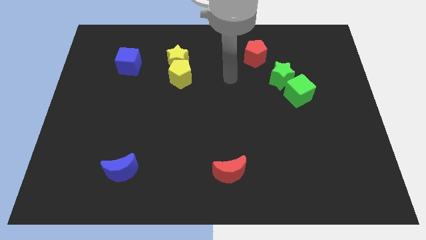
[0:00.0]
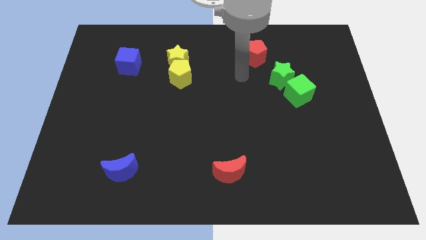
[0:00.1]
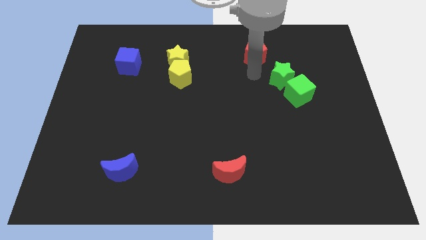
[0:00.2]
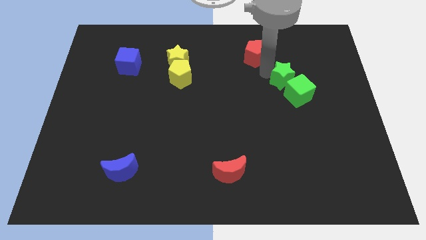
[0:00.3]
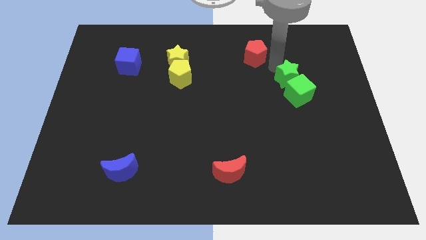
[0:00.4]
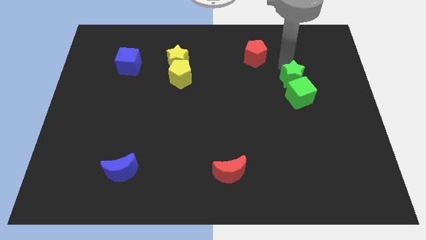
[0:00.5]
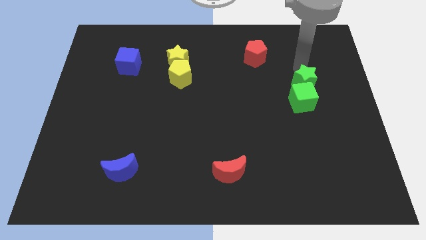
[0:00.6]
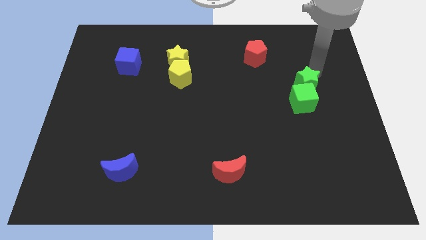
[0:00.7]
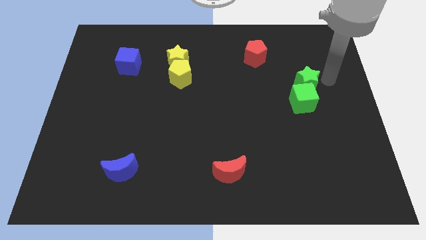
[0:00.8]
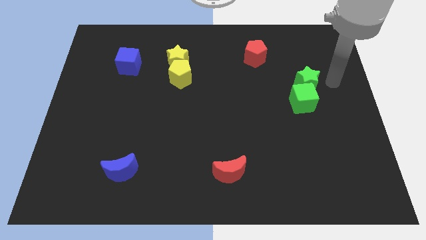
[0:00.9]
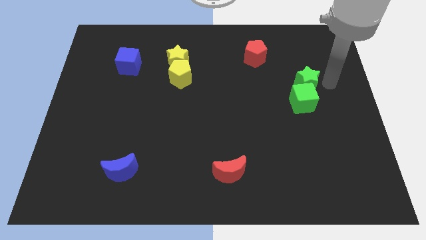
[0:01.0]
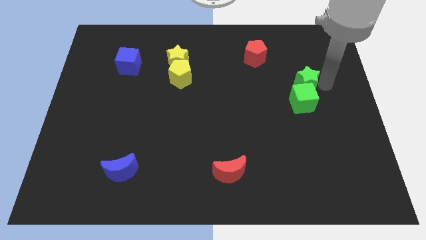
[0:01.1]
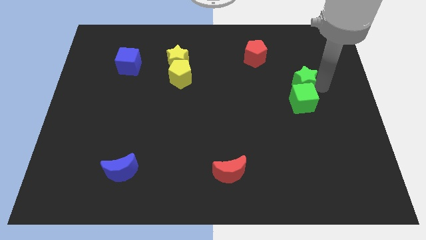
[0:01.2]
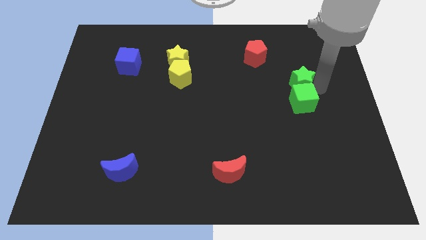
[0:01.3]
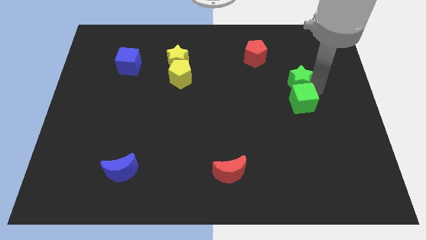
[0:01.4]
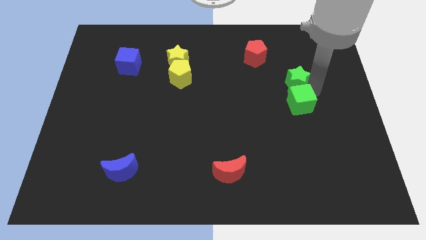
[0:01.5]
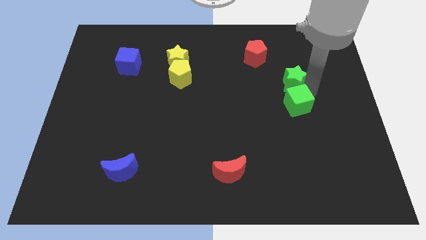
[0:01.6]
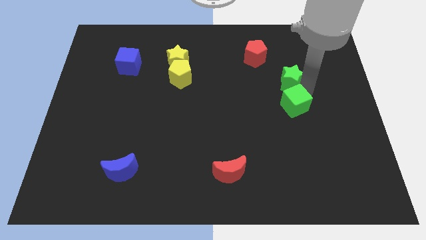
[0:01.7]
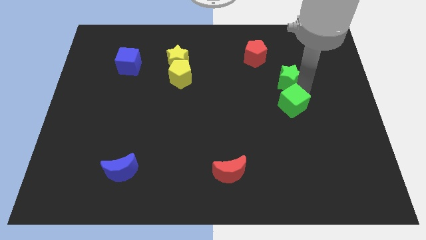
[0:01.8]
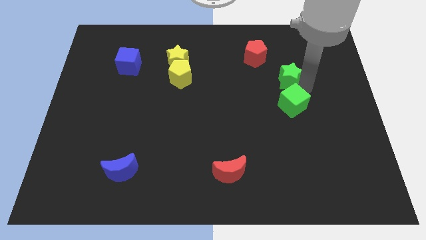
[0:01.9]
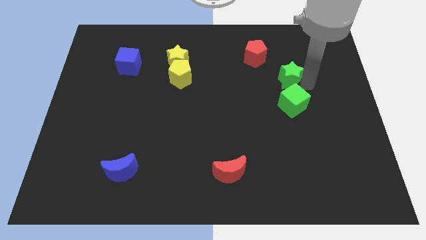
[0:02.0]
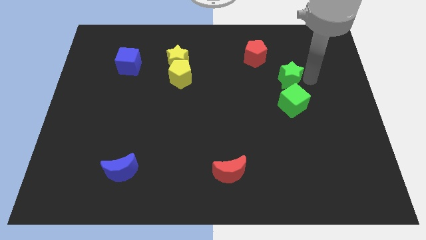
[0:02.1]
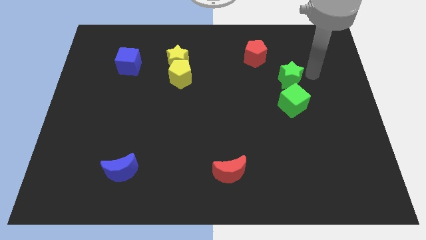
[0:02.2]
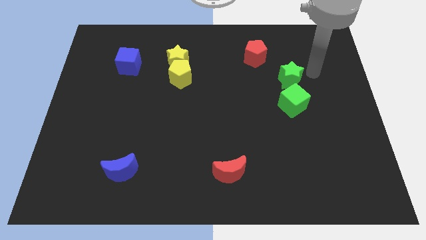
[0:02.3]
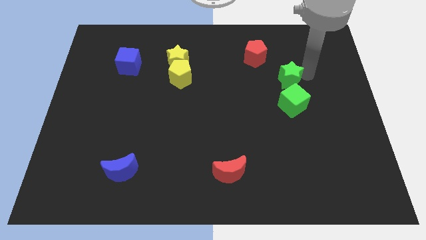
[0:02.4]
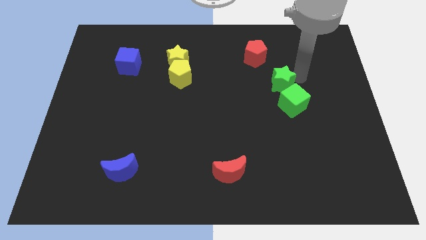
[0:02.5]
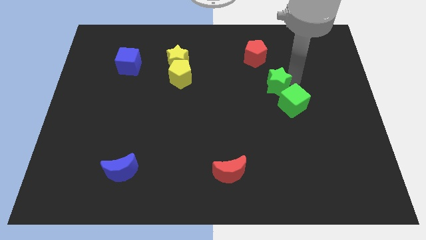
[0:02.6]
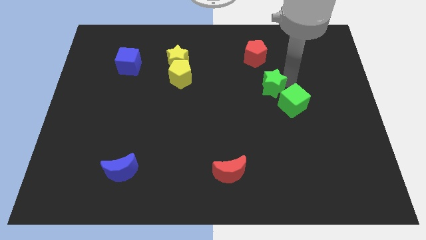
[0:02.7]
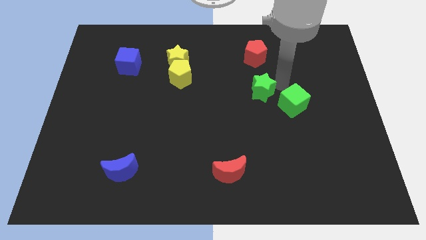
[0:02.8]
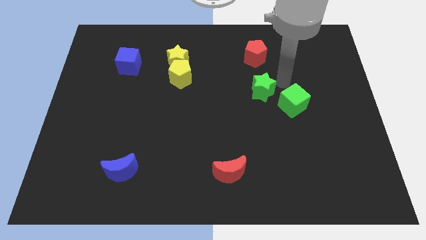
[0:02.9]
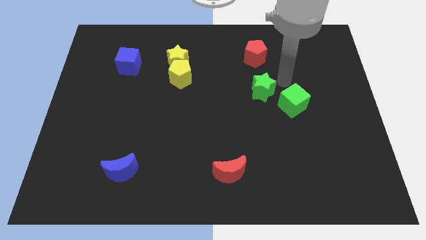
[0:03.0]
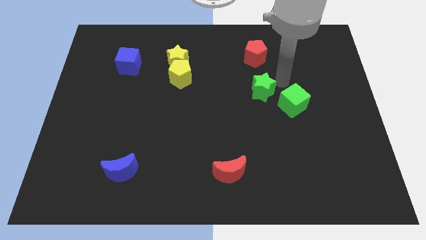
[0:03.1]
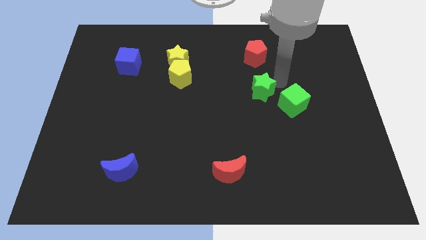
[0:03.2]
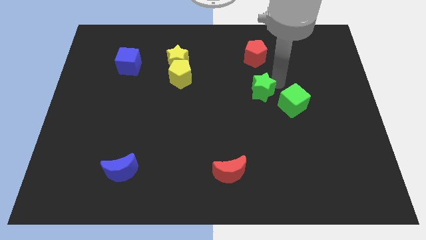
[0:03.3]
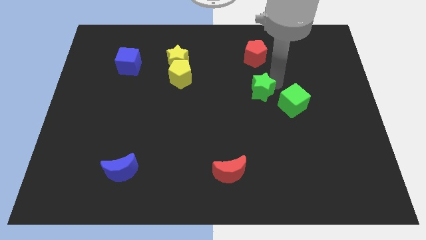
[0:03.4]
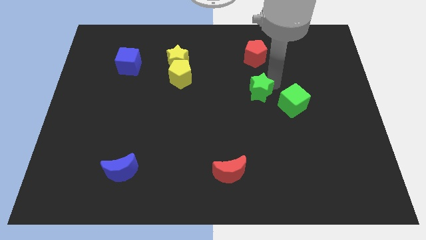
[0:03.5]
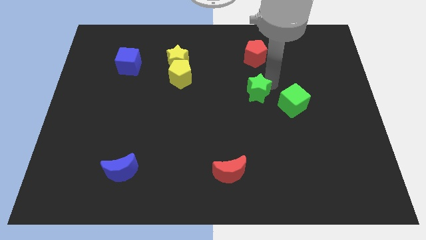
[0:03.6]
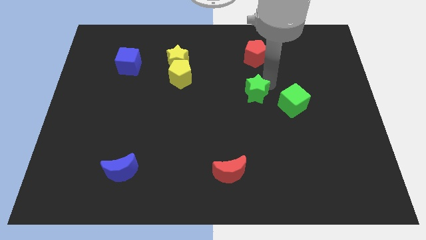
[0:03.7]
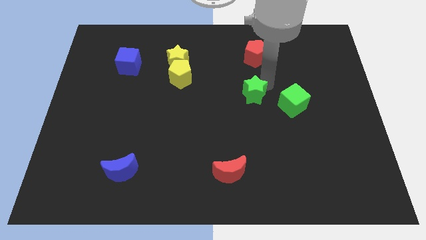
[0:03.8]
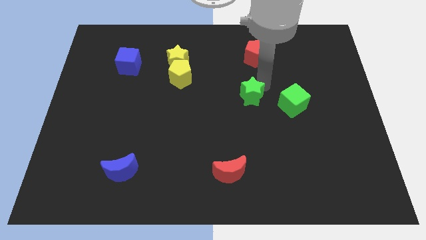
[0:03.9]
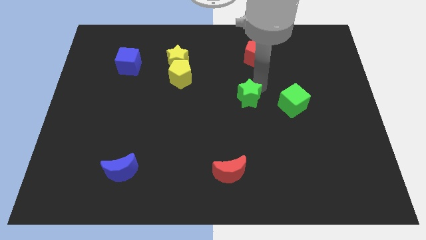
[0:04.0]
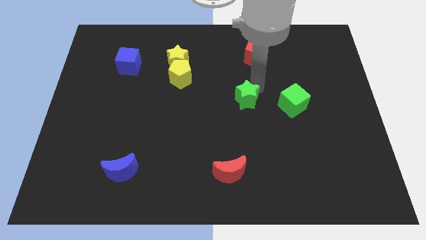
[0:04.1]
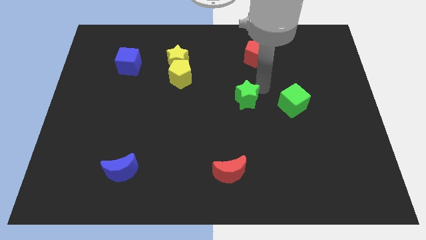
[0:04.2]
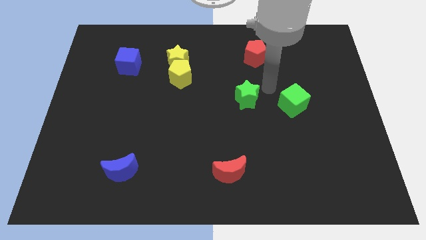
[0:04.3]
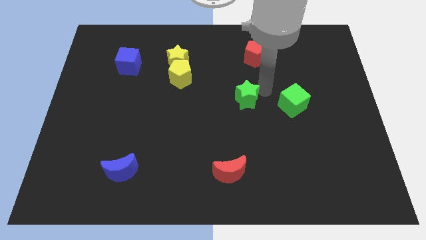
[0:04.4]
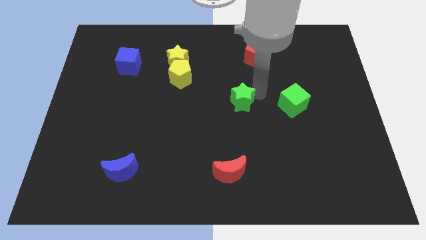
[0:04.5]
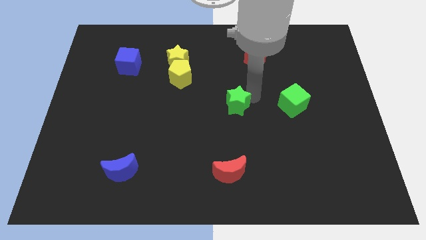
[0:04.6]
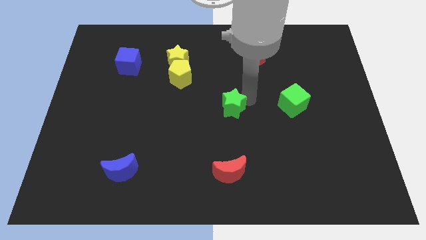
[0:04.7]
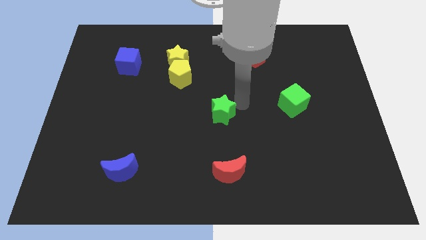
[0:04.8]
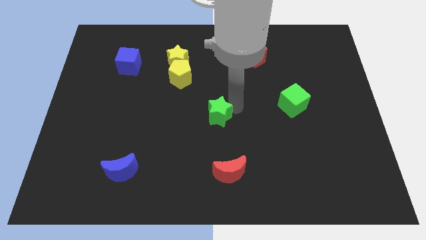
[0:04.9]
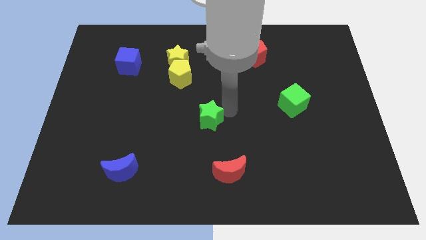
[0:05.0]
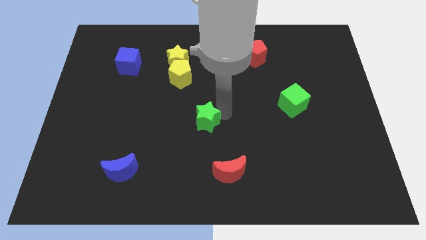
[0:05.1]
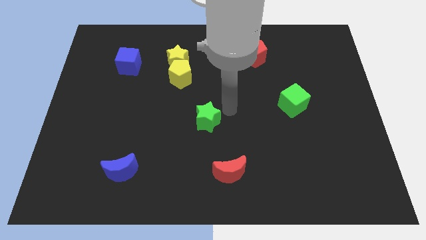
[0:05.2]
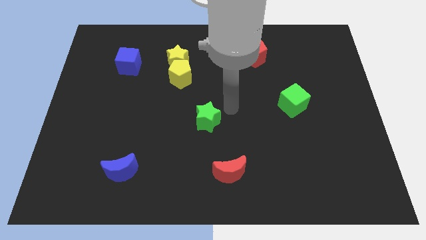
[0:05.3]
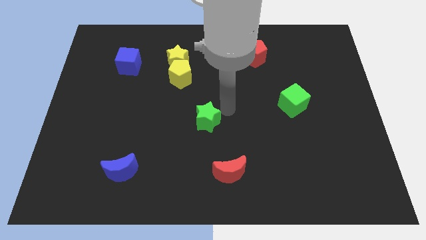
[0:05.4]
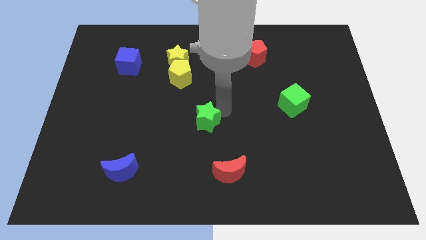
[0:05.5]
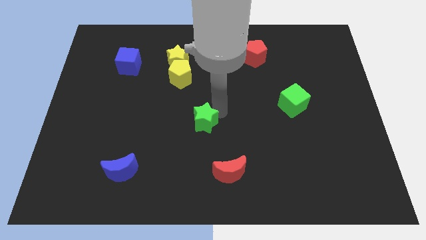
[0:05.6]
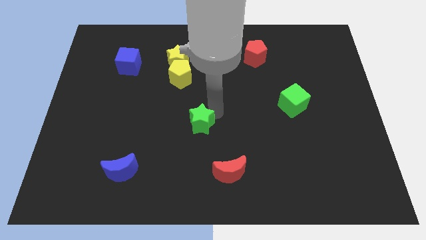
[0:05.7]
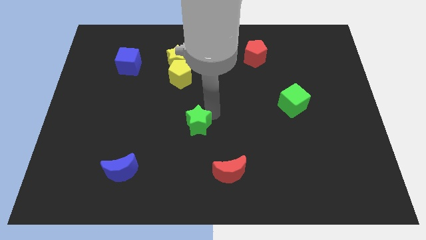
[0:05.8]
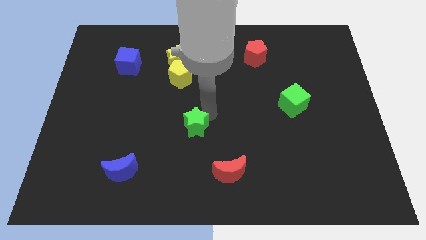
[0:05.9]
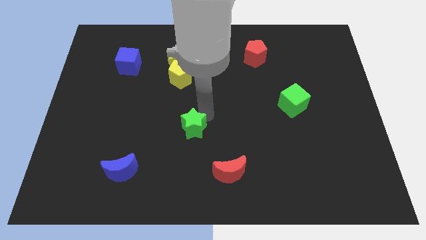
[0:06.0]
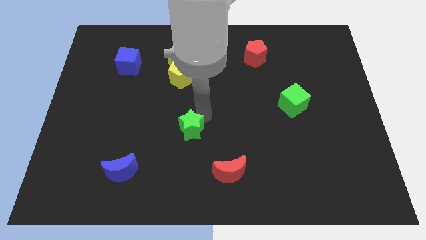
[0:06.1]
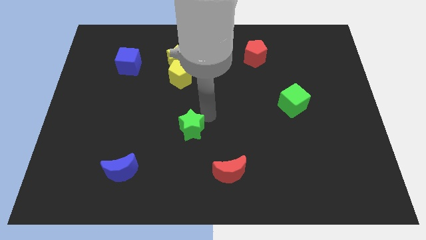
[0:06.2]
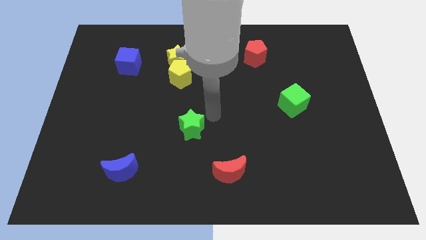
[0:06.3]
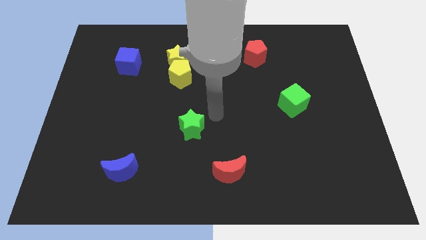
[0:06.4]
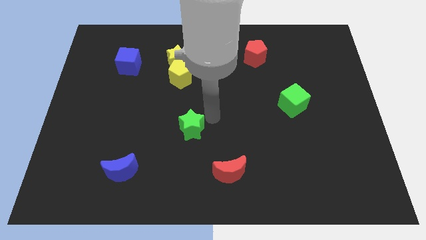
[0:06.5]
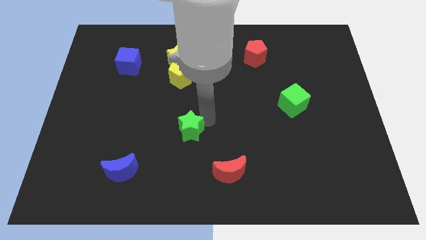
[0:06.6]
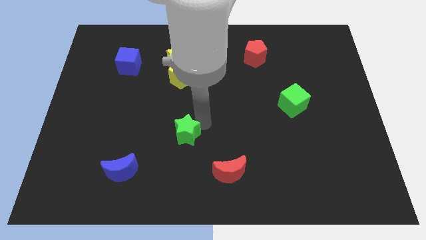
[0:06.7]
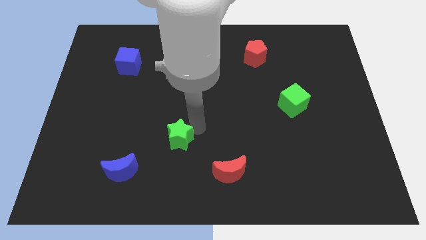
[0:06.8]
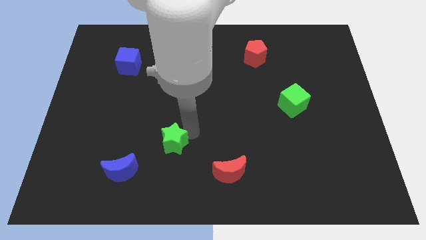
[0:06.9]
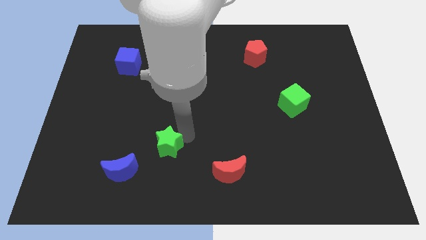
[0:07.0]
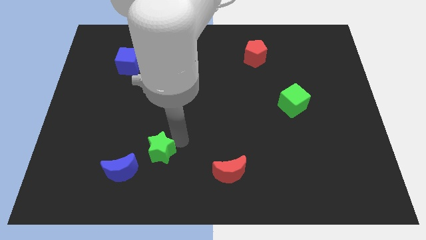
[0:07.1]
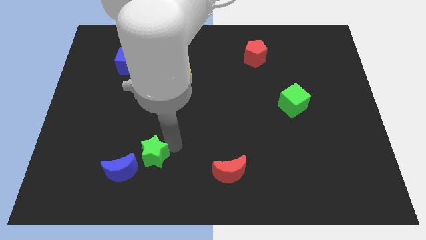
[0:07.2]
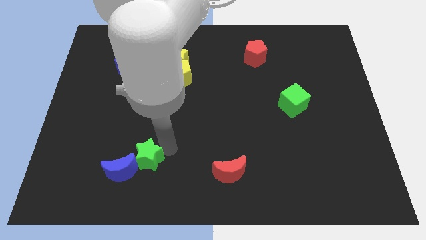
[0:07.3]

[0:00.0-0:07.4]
slide the green star towards the blue moon

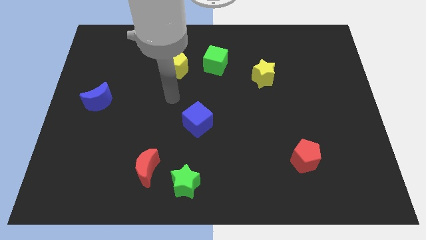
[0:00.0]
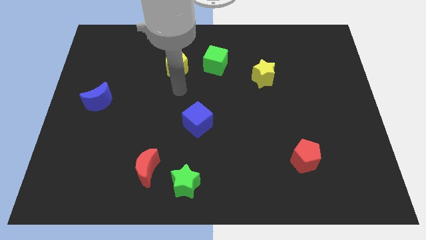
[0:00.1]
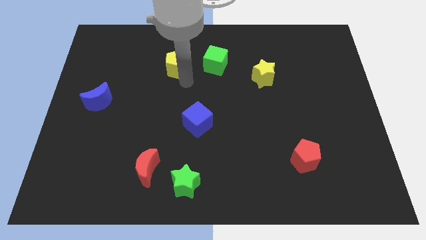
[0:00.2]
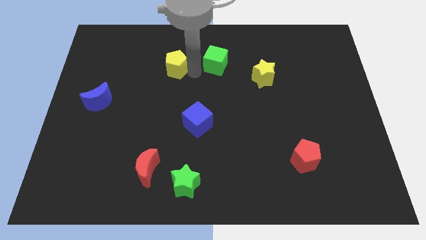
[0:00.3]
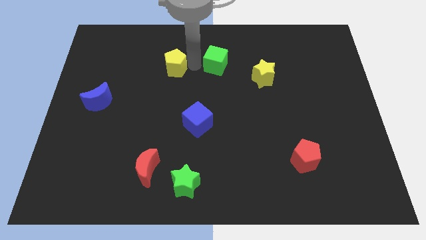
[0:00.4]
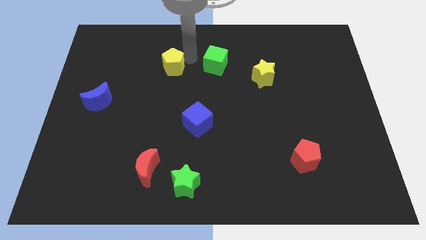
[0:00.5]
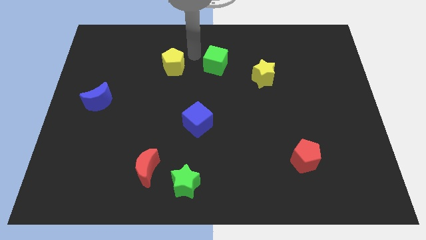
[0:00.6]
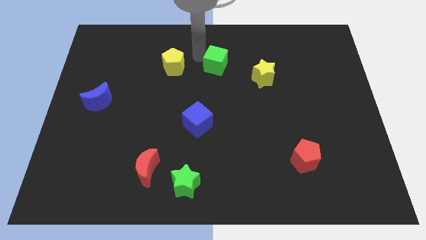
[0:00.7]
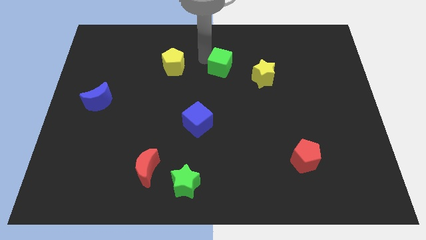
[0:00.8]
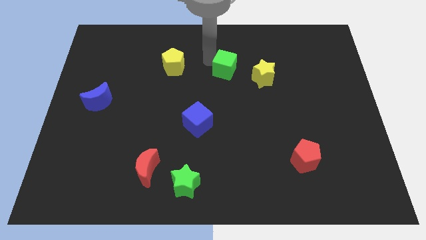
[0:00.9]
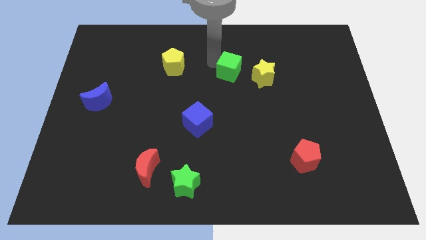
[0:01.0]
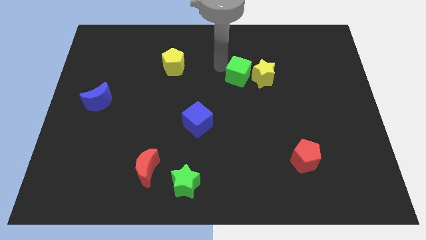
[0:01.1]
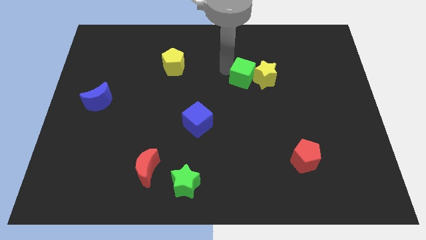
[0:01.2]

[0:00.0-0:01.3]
move the green cube towards the yellow star
